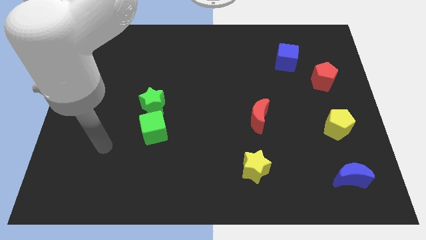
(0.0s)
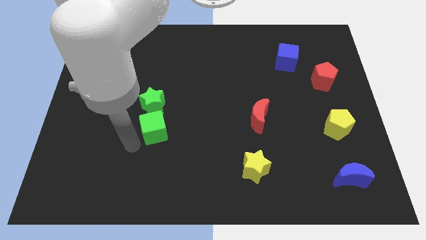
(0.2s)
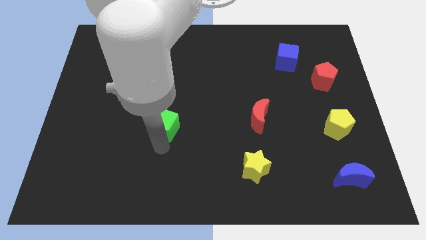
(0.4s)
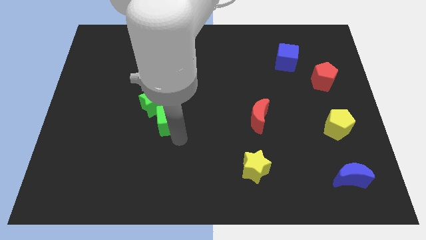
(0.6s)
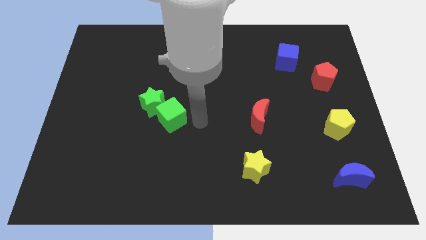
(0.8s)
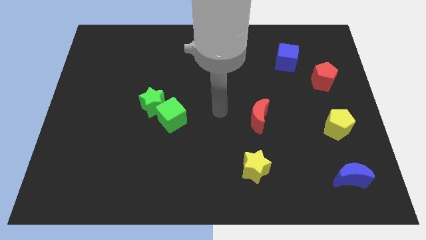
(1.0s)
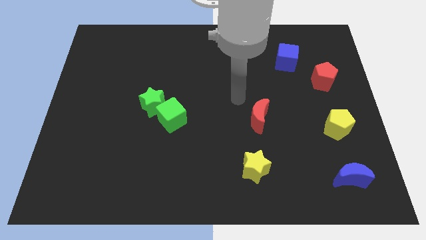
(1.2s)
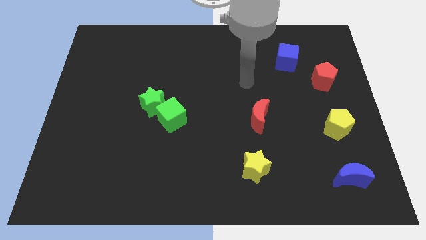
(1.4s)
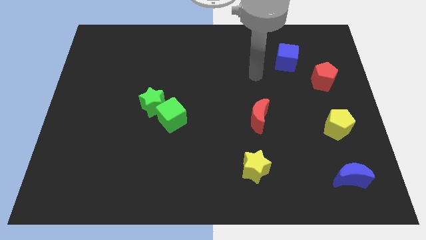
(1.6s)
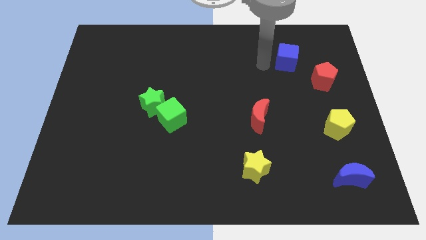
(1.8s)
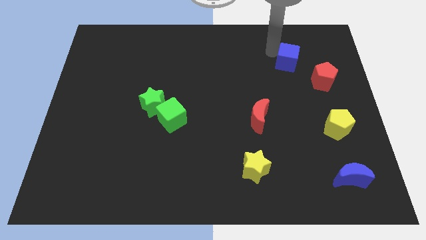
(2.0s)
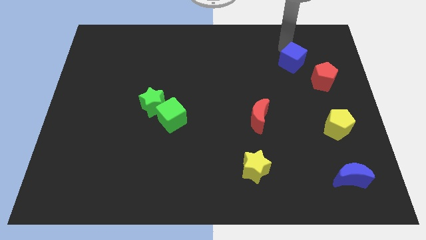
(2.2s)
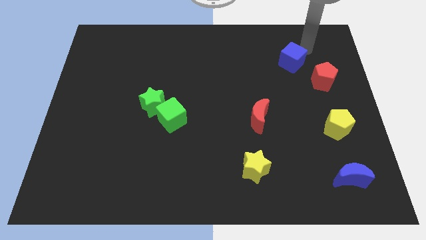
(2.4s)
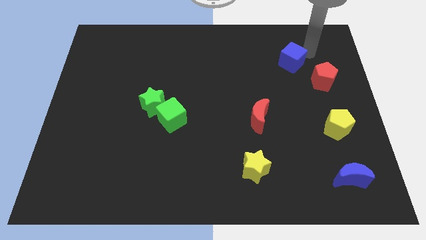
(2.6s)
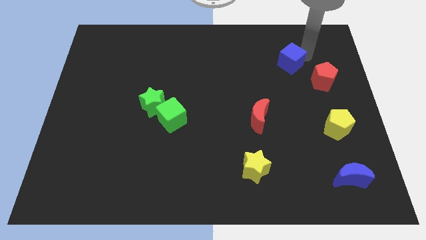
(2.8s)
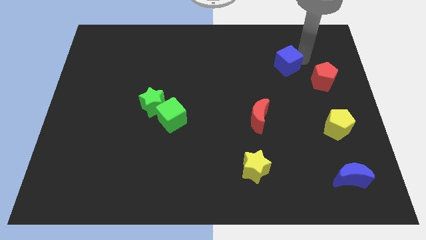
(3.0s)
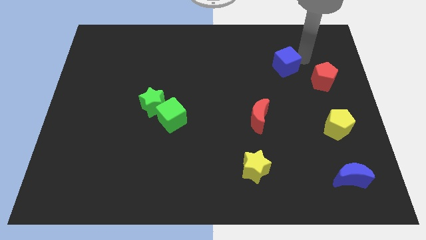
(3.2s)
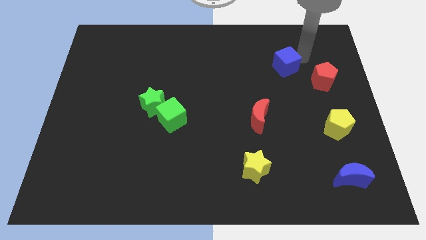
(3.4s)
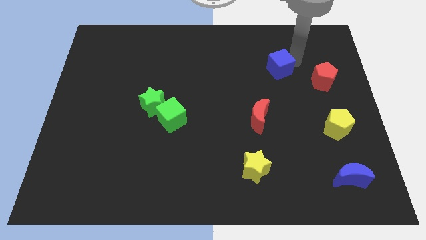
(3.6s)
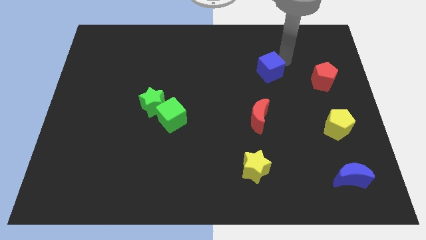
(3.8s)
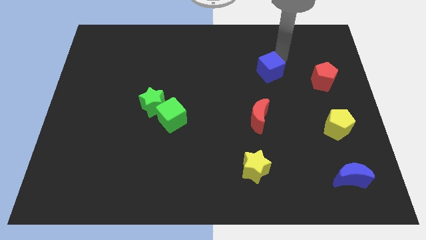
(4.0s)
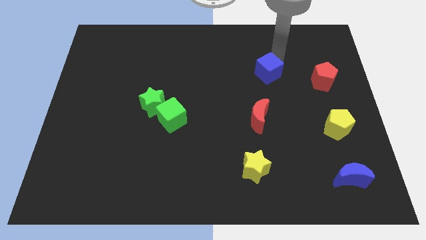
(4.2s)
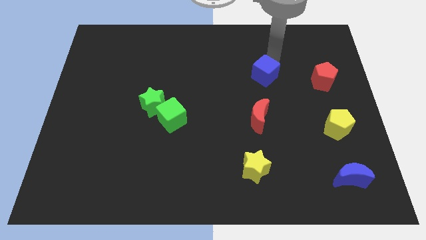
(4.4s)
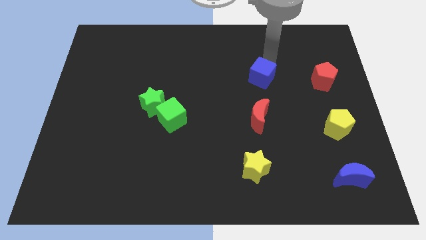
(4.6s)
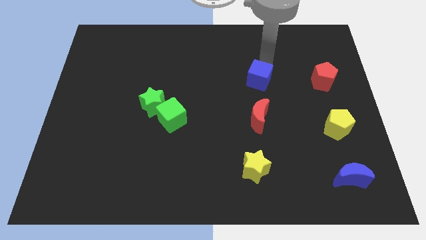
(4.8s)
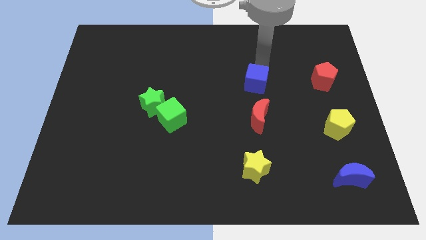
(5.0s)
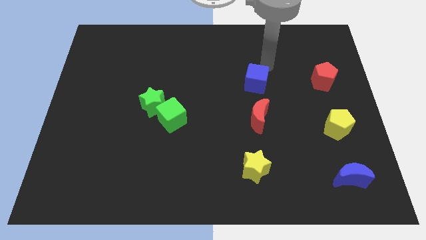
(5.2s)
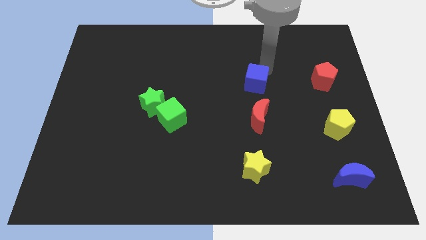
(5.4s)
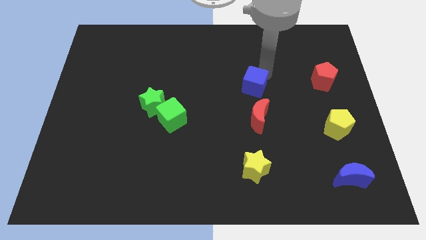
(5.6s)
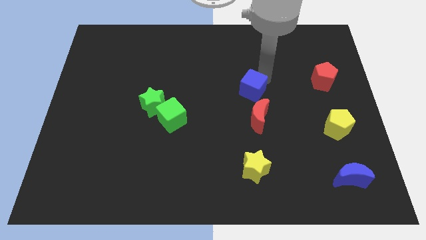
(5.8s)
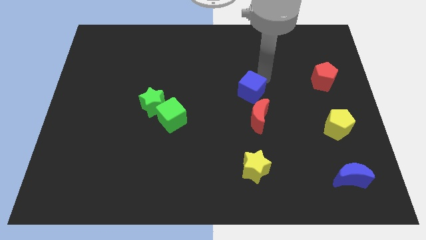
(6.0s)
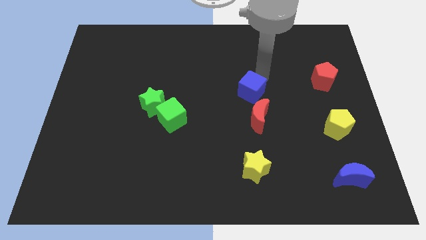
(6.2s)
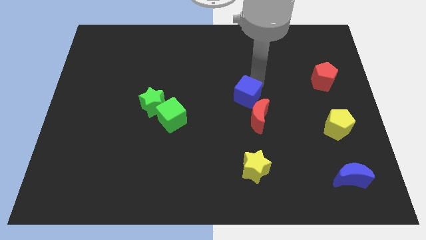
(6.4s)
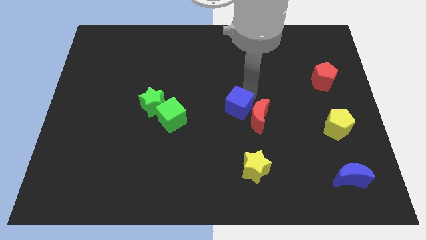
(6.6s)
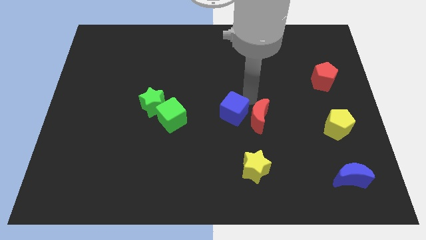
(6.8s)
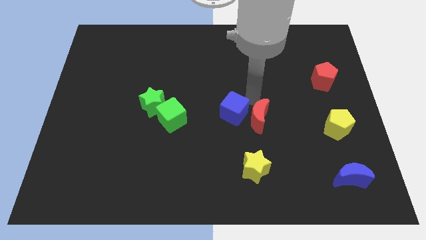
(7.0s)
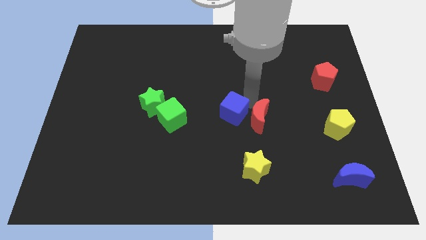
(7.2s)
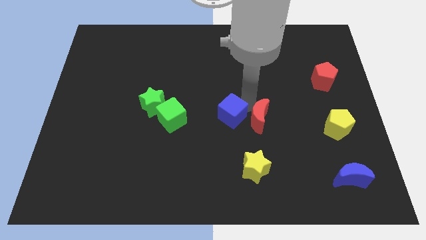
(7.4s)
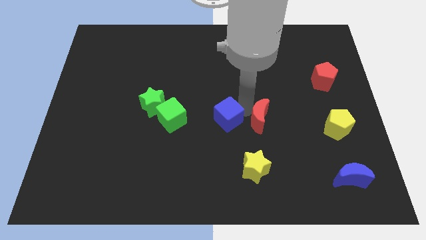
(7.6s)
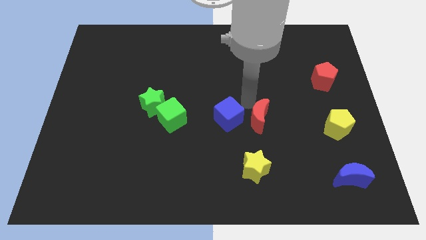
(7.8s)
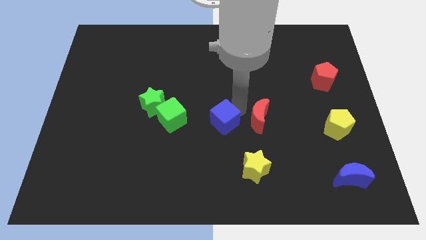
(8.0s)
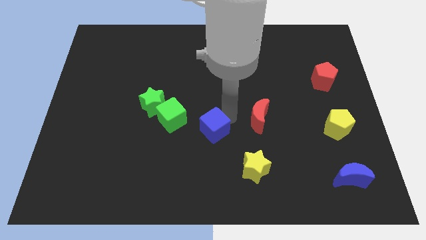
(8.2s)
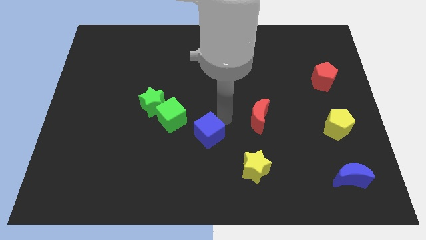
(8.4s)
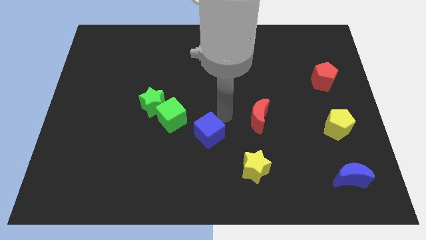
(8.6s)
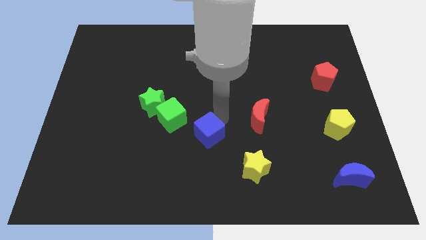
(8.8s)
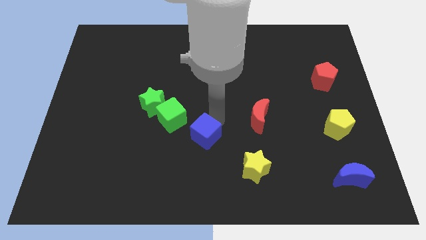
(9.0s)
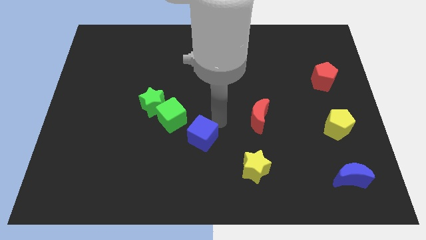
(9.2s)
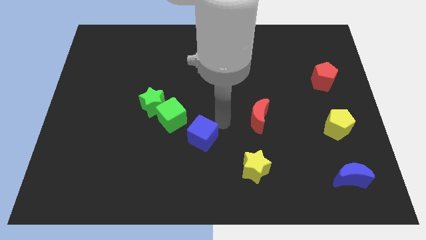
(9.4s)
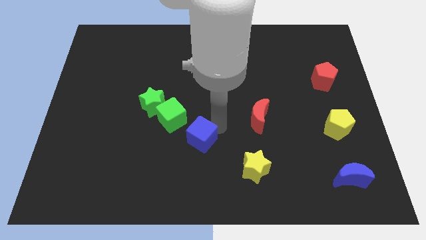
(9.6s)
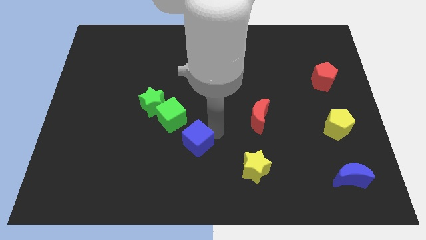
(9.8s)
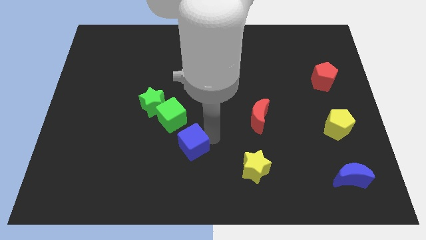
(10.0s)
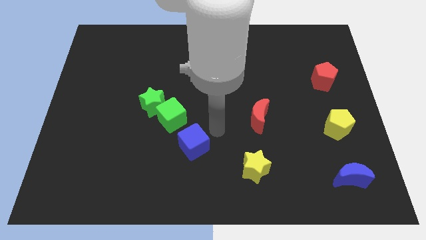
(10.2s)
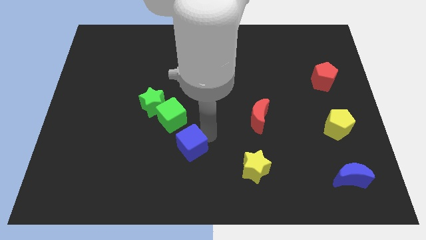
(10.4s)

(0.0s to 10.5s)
push the blue cube to the bottom of the green cube

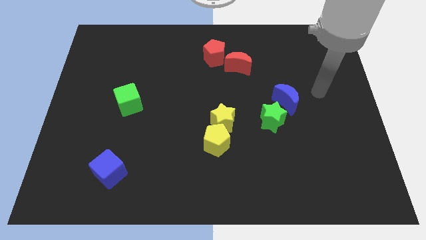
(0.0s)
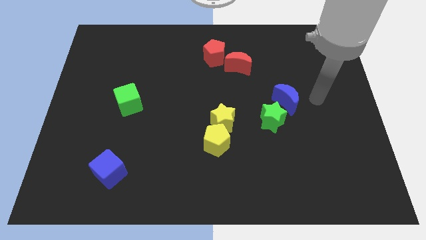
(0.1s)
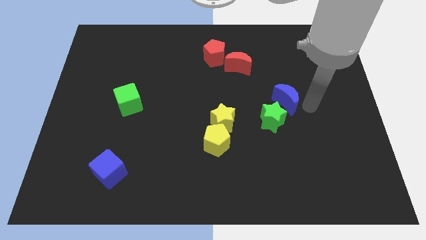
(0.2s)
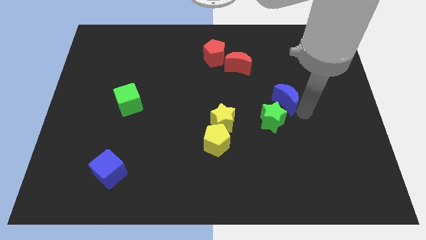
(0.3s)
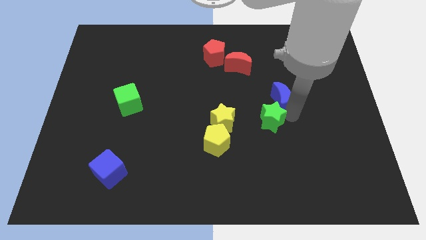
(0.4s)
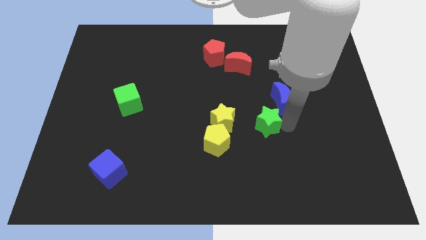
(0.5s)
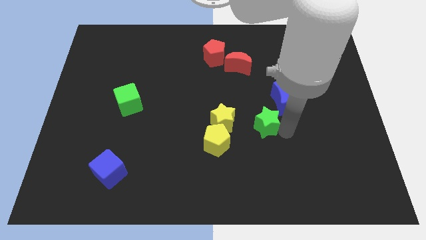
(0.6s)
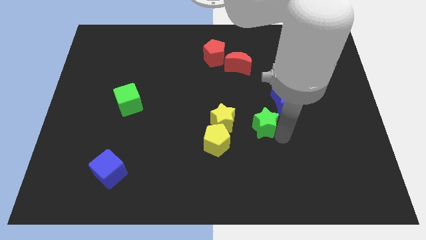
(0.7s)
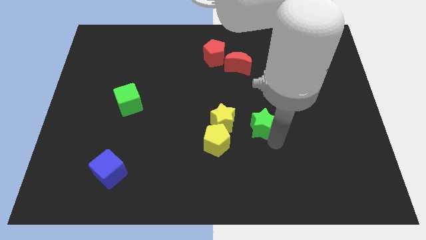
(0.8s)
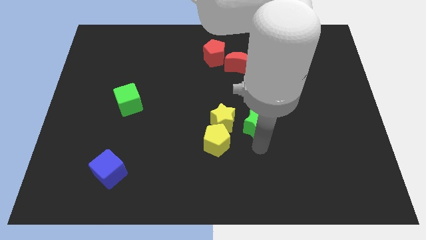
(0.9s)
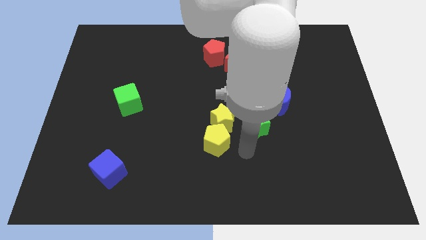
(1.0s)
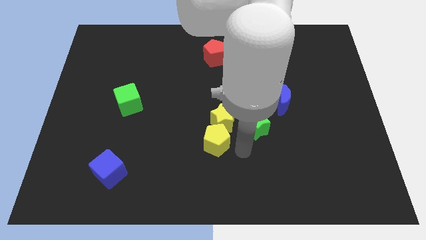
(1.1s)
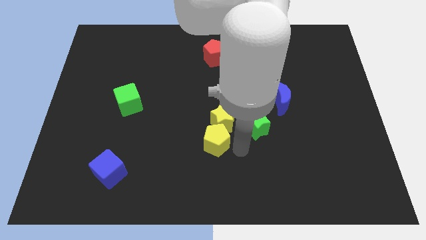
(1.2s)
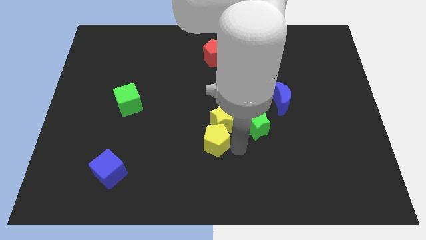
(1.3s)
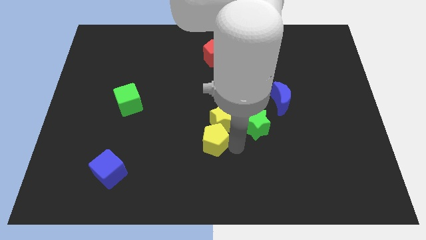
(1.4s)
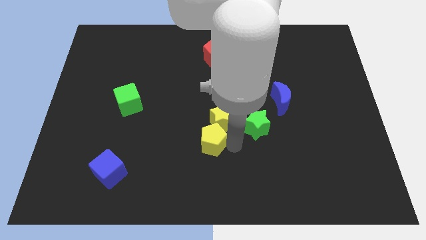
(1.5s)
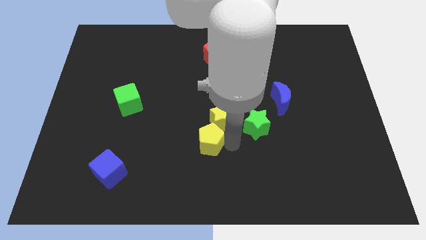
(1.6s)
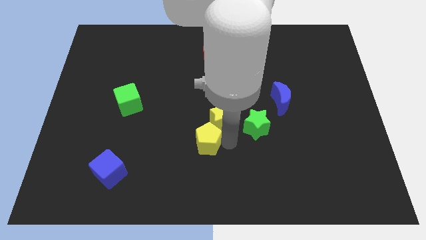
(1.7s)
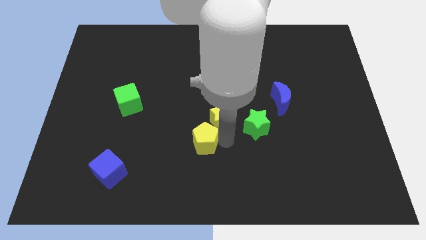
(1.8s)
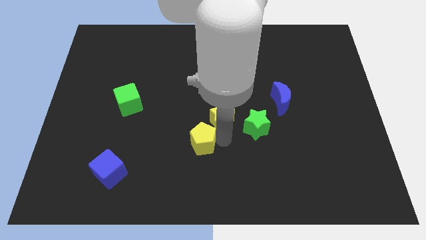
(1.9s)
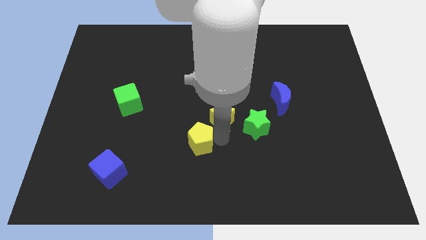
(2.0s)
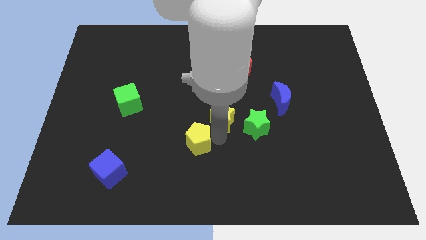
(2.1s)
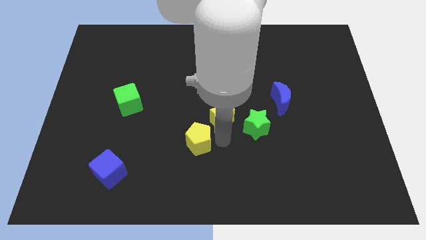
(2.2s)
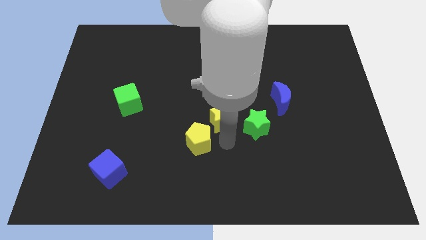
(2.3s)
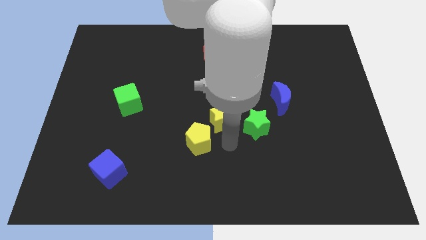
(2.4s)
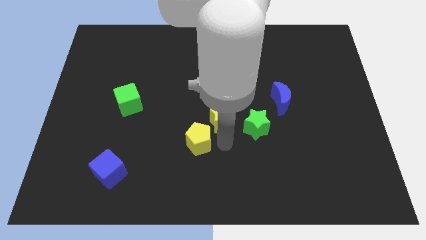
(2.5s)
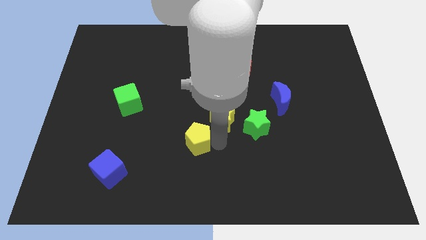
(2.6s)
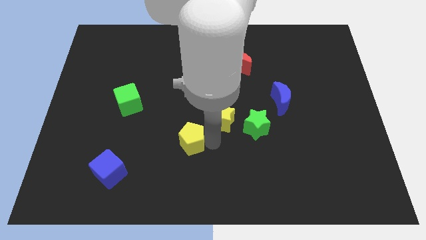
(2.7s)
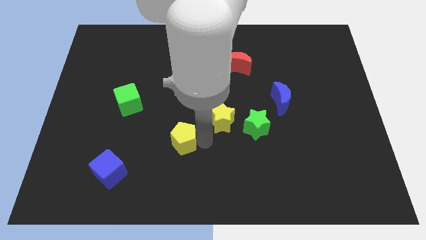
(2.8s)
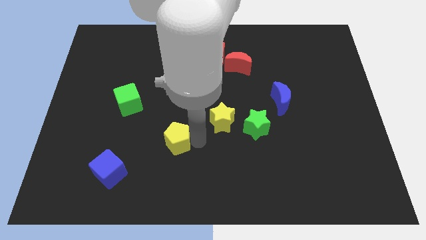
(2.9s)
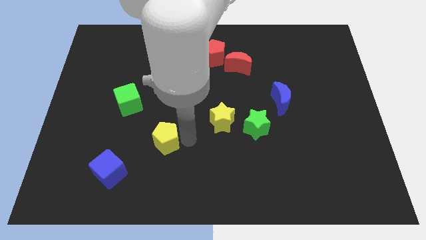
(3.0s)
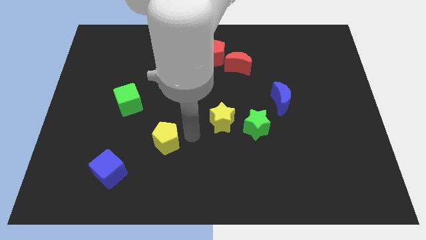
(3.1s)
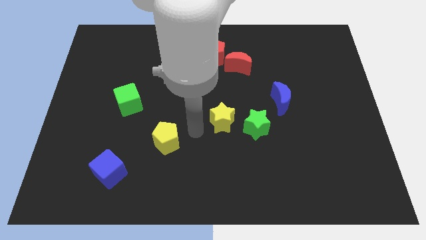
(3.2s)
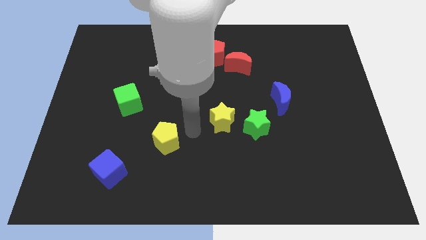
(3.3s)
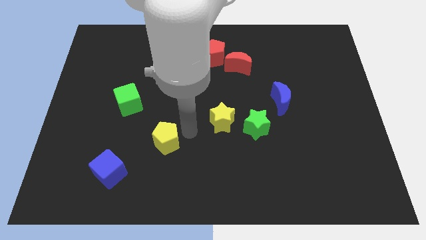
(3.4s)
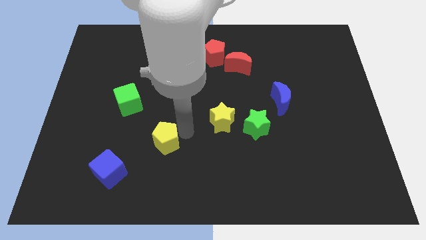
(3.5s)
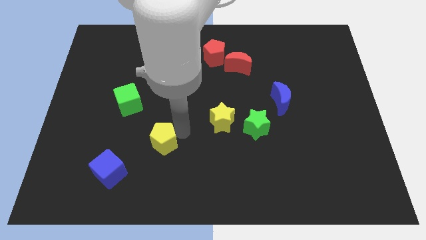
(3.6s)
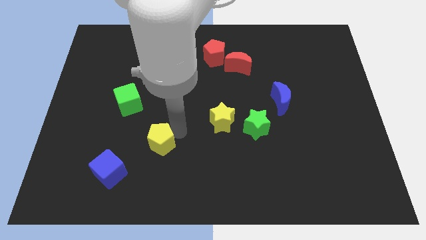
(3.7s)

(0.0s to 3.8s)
slide the yellow pentagon diagonally up and to the right of the blue cube
